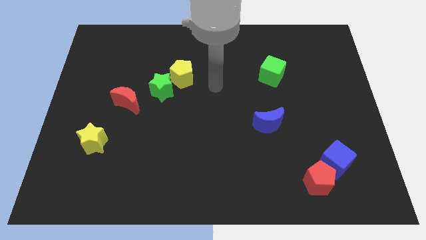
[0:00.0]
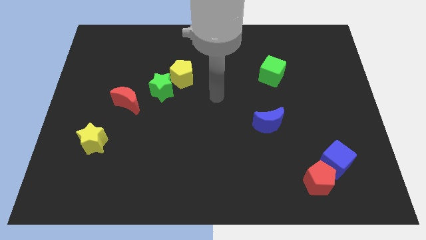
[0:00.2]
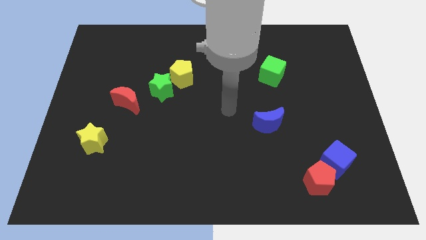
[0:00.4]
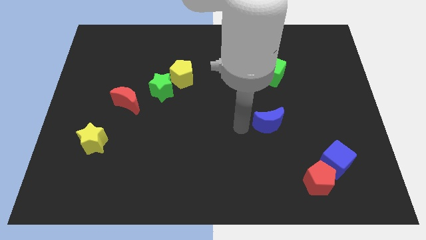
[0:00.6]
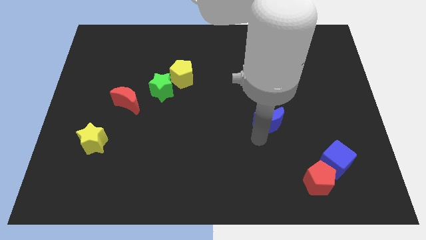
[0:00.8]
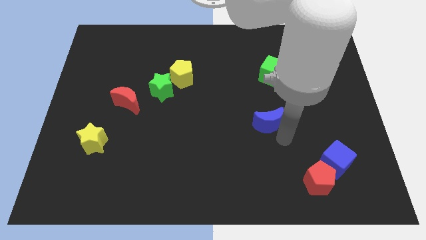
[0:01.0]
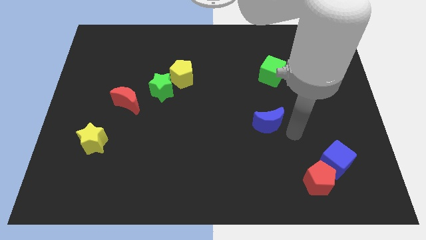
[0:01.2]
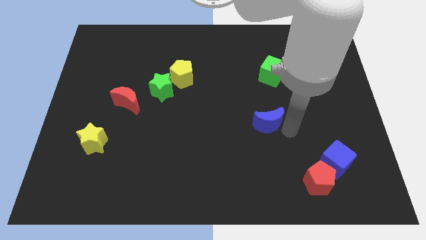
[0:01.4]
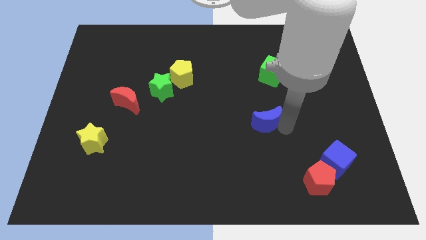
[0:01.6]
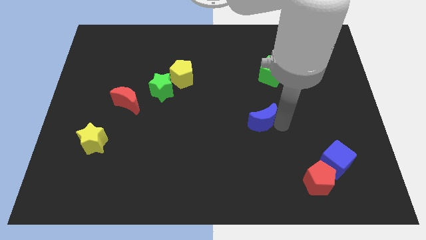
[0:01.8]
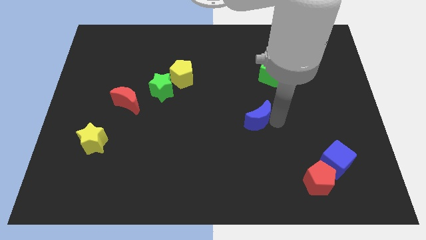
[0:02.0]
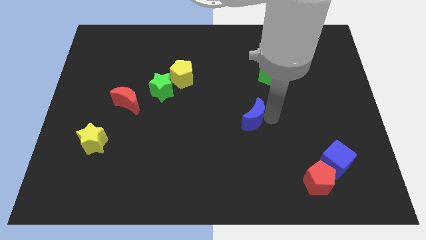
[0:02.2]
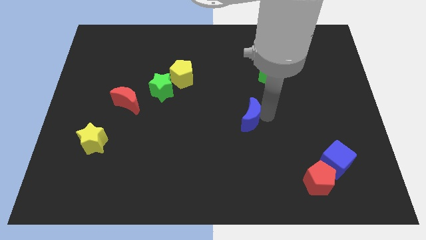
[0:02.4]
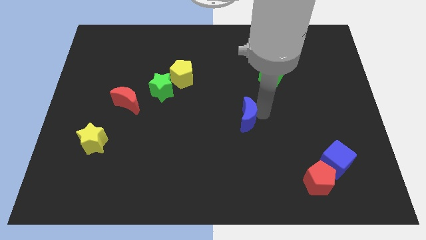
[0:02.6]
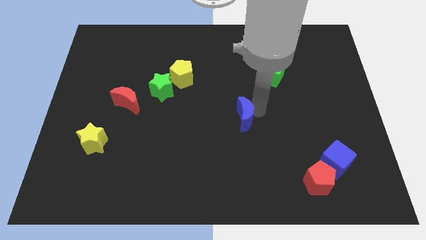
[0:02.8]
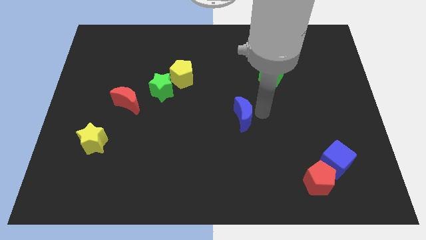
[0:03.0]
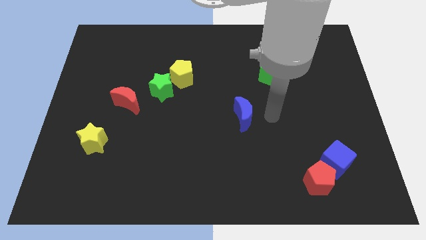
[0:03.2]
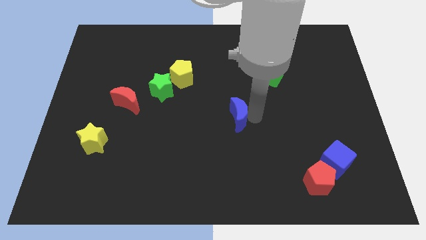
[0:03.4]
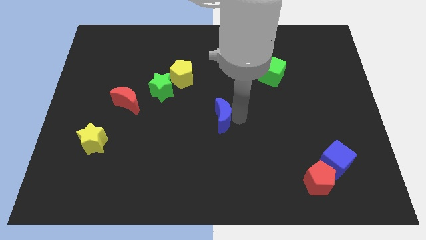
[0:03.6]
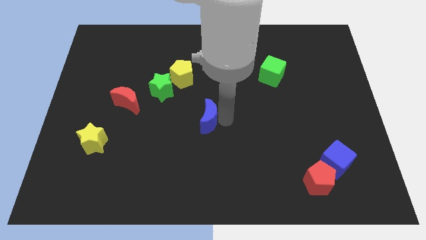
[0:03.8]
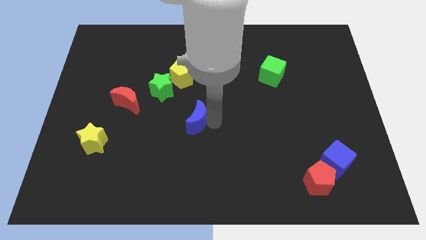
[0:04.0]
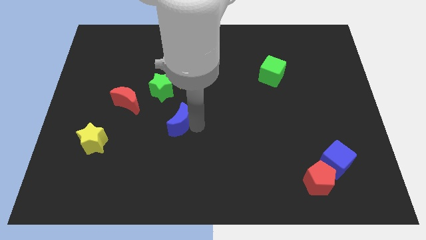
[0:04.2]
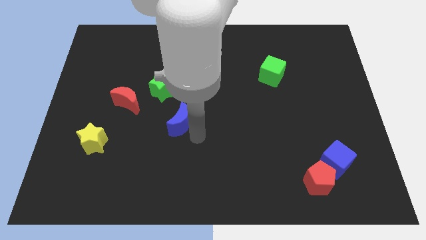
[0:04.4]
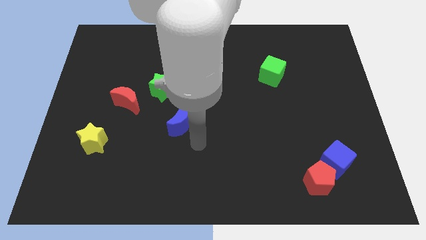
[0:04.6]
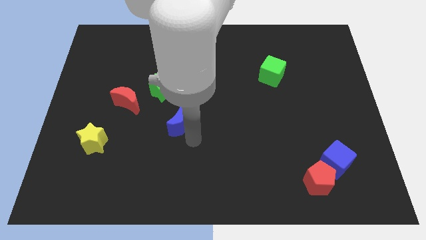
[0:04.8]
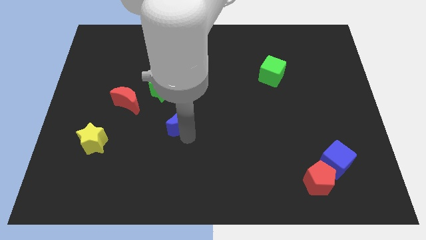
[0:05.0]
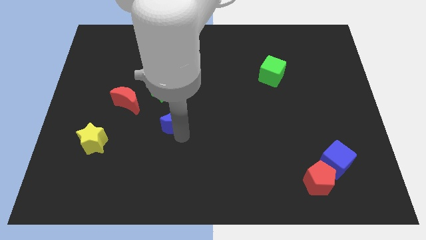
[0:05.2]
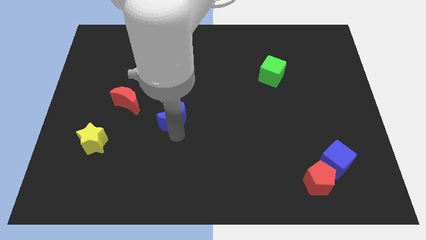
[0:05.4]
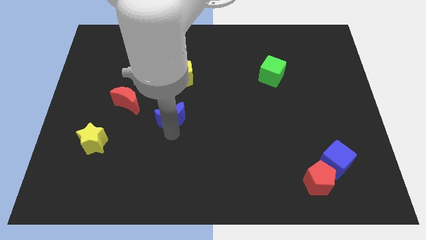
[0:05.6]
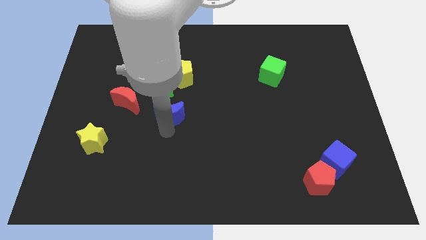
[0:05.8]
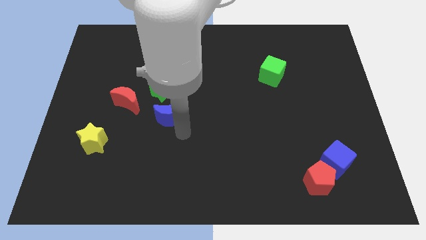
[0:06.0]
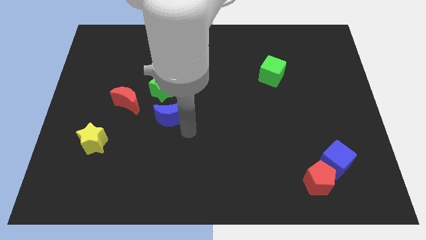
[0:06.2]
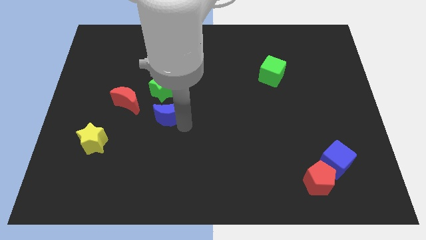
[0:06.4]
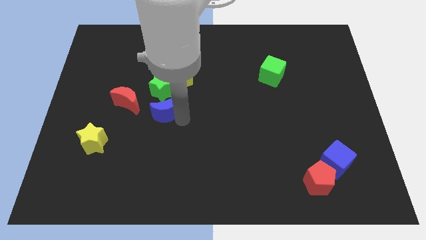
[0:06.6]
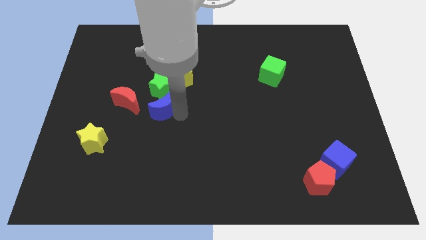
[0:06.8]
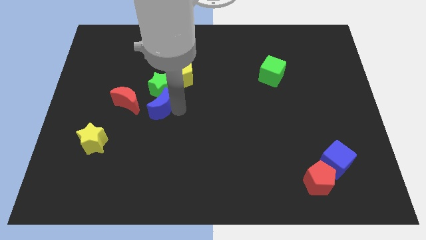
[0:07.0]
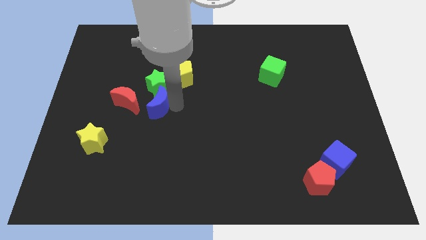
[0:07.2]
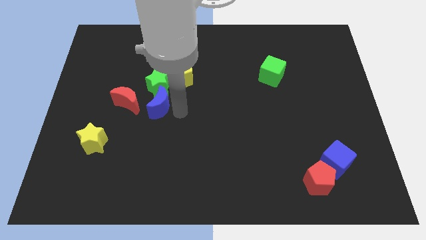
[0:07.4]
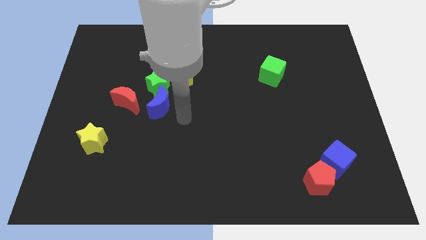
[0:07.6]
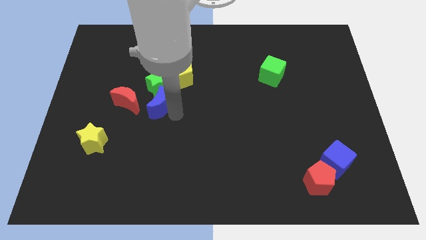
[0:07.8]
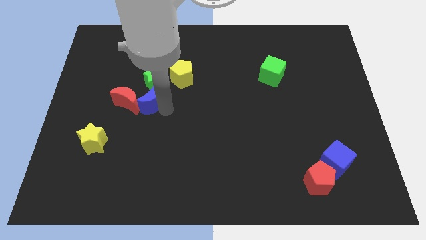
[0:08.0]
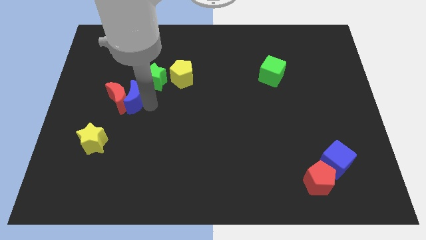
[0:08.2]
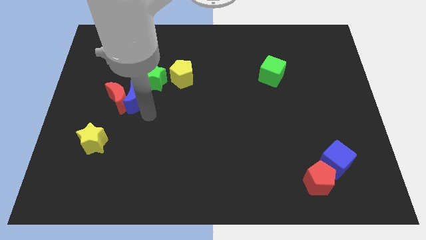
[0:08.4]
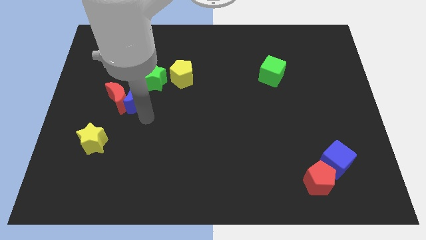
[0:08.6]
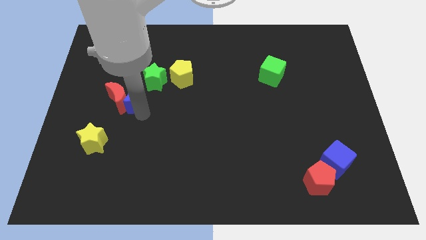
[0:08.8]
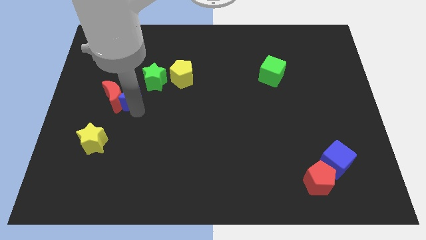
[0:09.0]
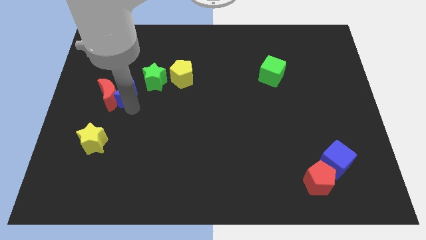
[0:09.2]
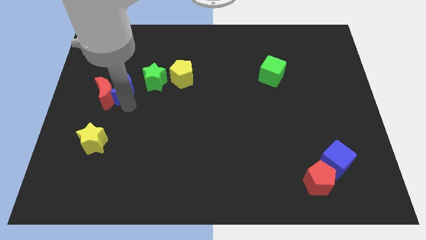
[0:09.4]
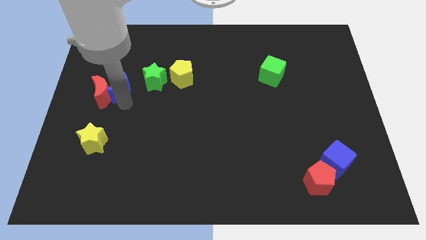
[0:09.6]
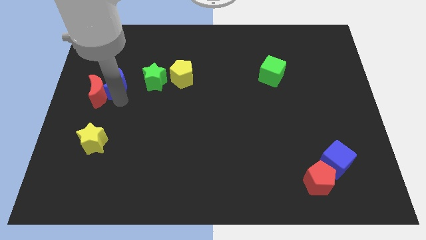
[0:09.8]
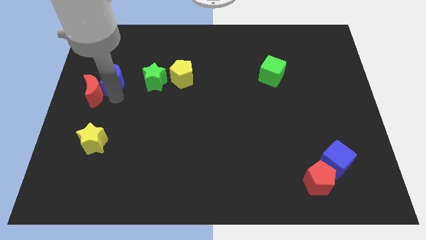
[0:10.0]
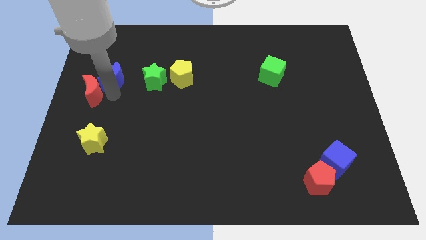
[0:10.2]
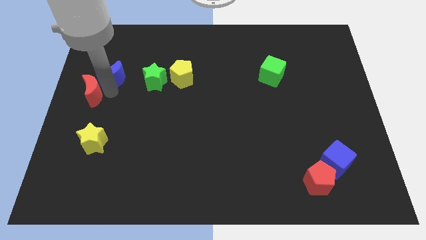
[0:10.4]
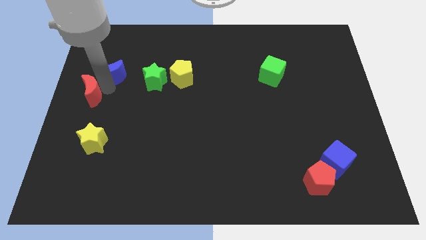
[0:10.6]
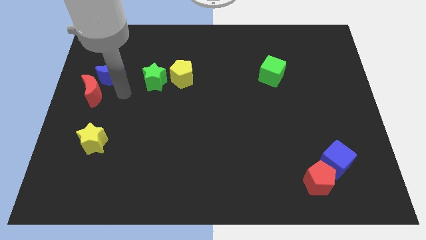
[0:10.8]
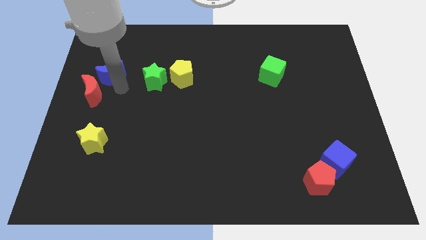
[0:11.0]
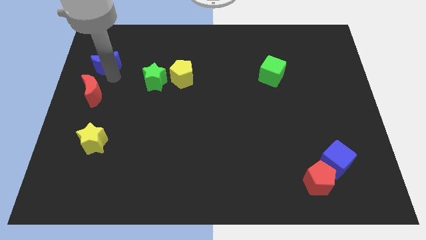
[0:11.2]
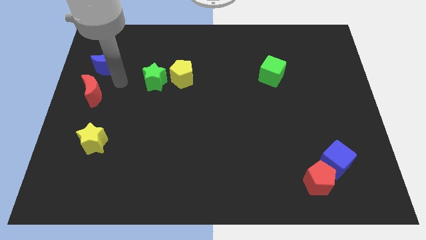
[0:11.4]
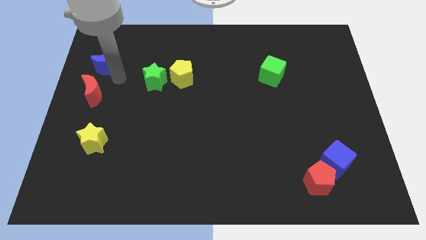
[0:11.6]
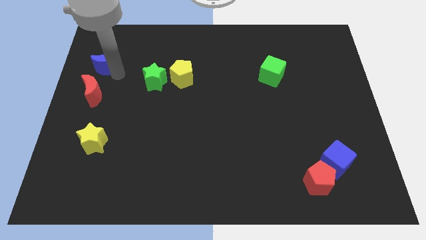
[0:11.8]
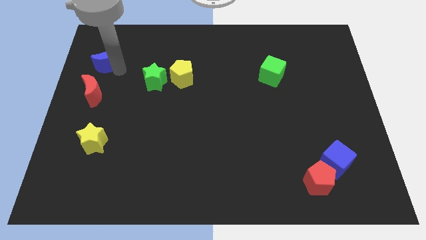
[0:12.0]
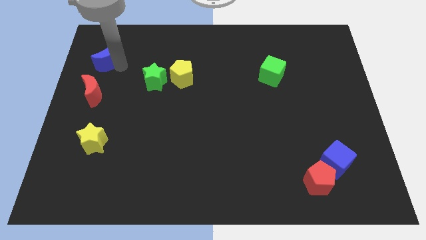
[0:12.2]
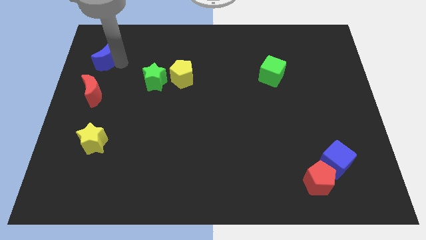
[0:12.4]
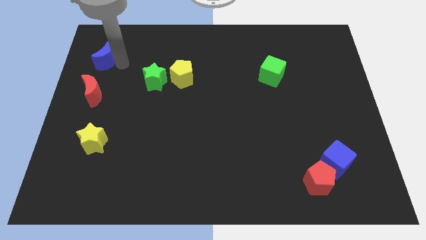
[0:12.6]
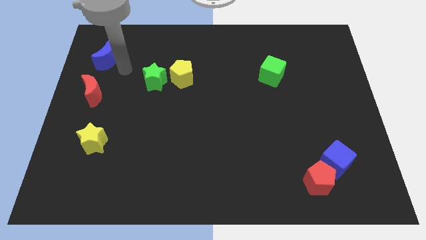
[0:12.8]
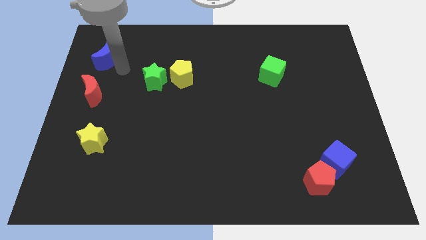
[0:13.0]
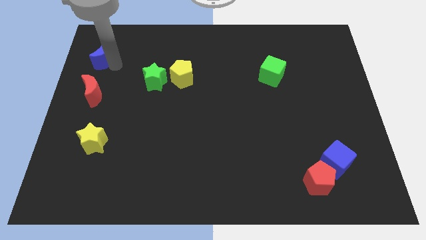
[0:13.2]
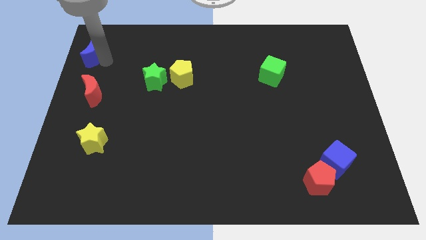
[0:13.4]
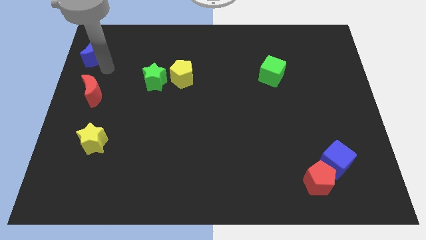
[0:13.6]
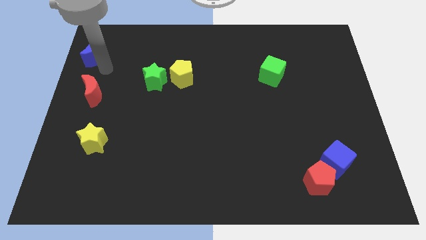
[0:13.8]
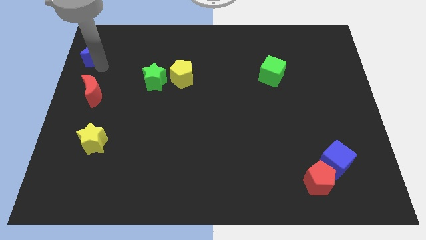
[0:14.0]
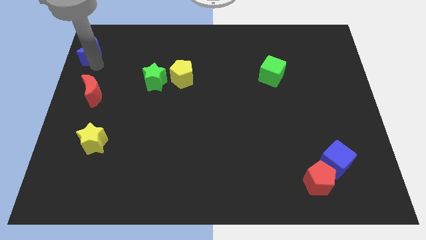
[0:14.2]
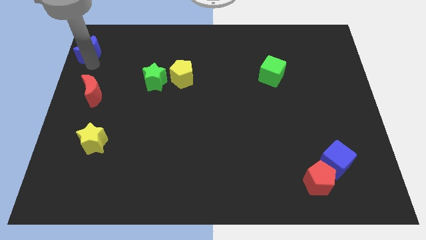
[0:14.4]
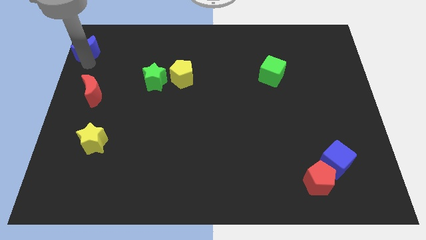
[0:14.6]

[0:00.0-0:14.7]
move the blue moon to the top left
